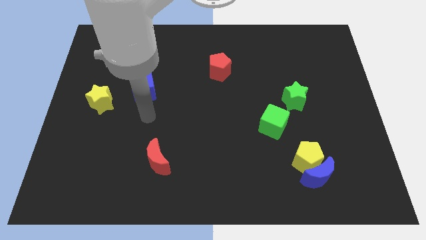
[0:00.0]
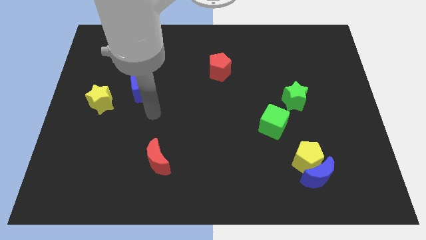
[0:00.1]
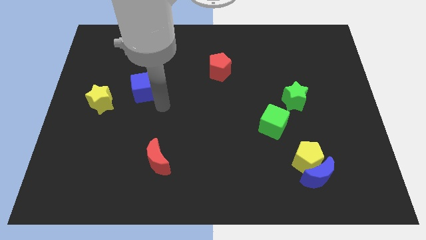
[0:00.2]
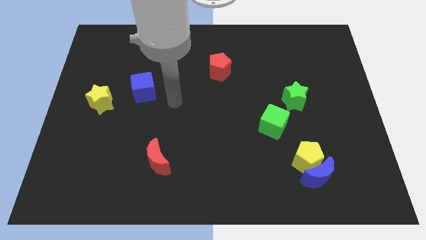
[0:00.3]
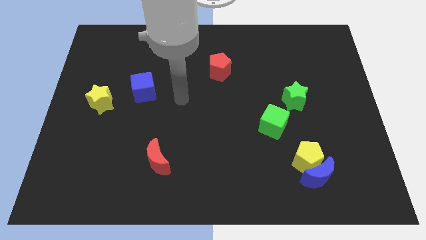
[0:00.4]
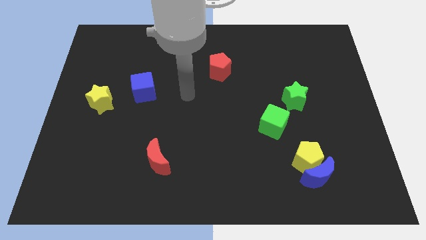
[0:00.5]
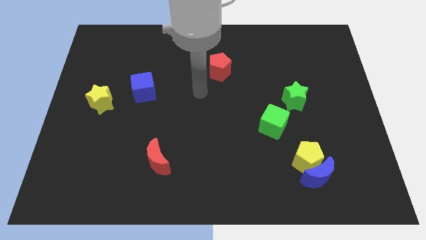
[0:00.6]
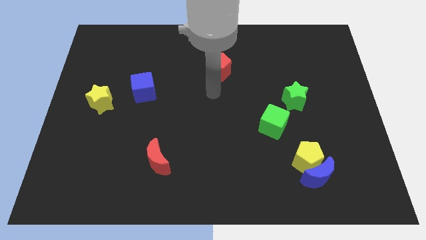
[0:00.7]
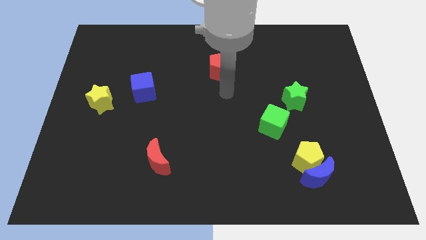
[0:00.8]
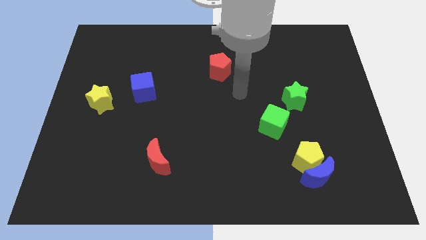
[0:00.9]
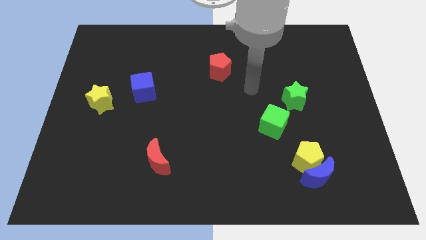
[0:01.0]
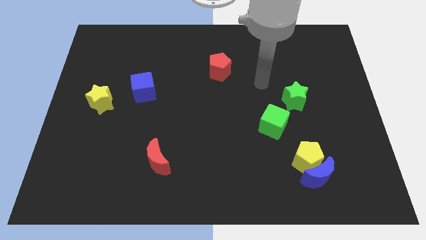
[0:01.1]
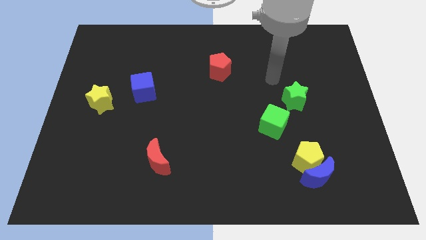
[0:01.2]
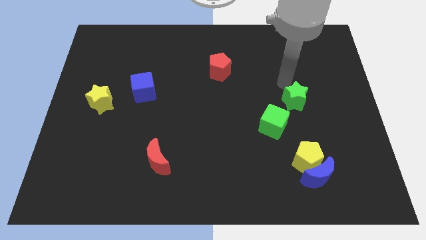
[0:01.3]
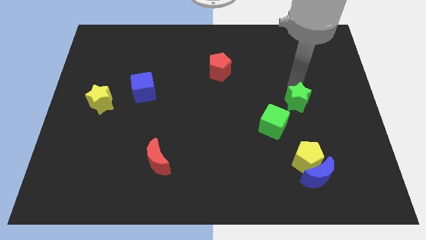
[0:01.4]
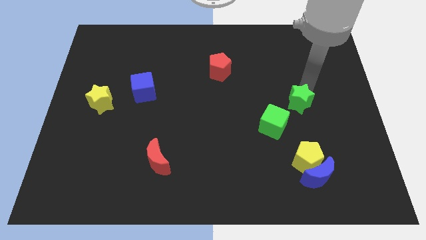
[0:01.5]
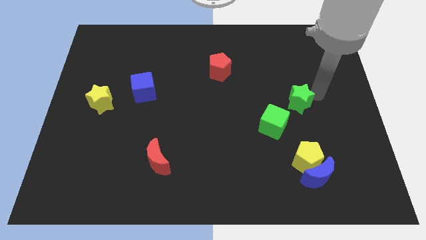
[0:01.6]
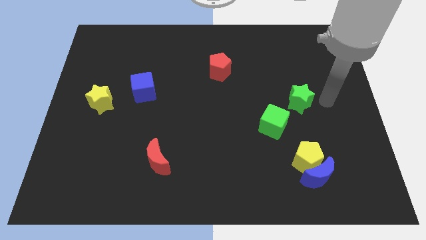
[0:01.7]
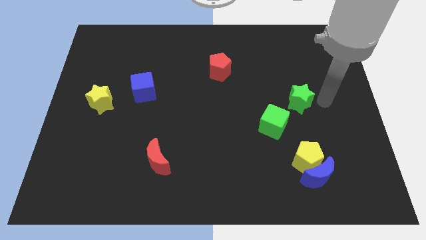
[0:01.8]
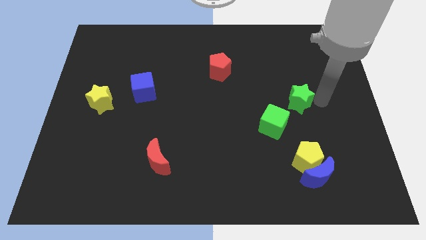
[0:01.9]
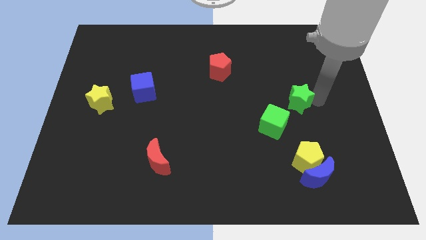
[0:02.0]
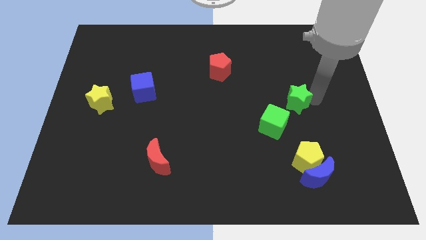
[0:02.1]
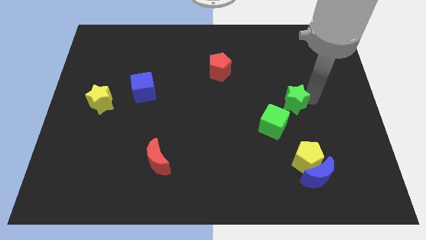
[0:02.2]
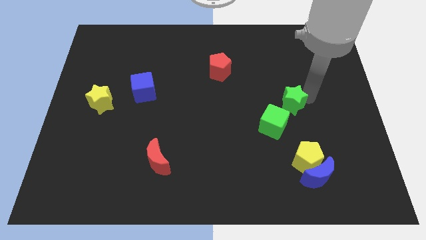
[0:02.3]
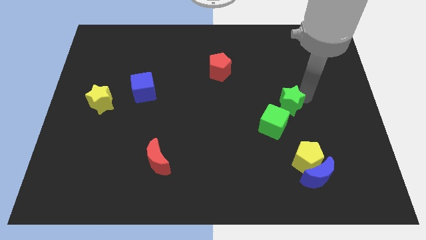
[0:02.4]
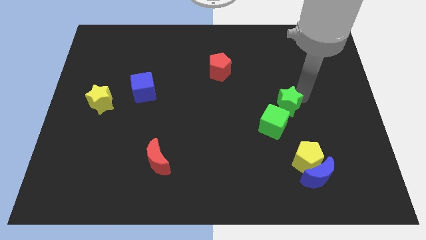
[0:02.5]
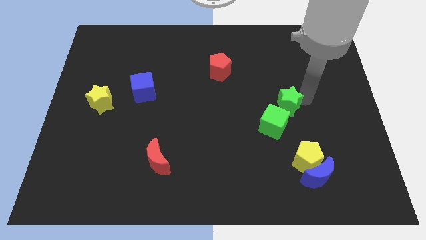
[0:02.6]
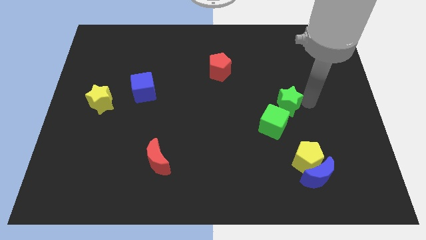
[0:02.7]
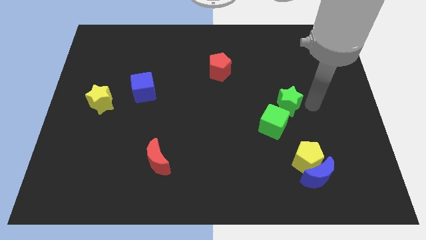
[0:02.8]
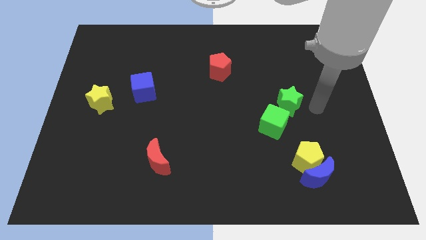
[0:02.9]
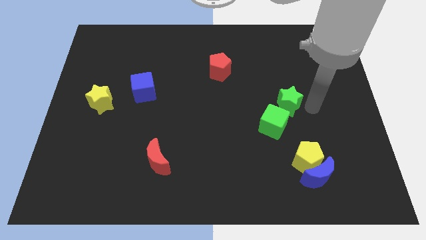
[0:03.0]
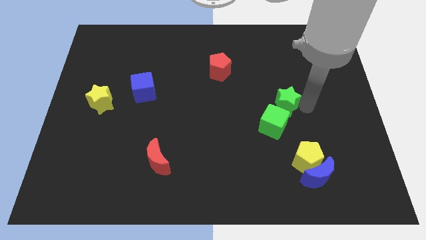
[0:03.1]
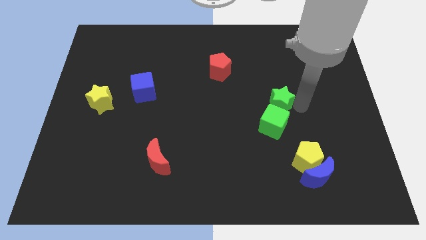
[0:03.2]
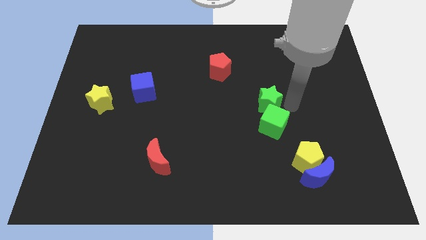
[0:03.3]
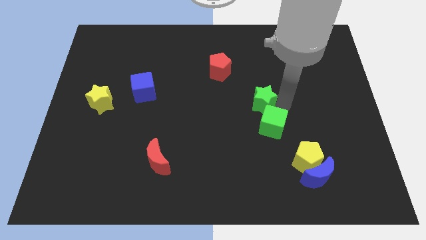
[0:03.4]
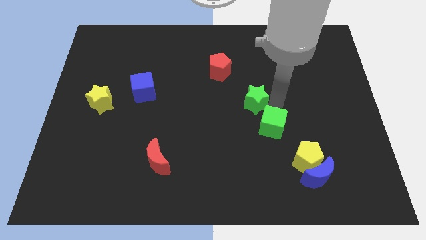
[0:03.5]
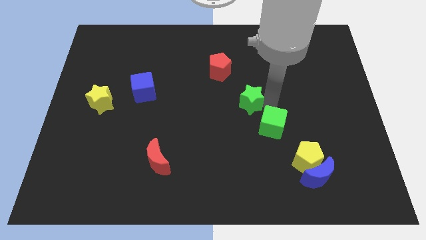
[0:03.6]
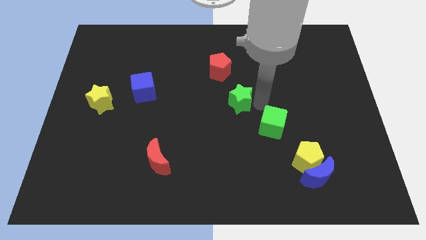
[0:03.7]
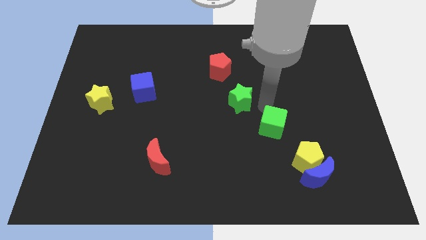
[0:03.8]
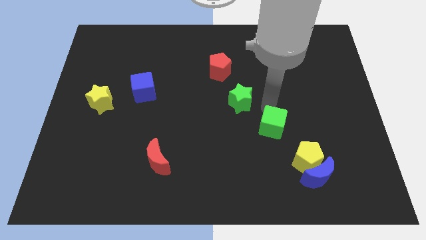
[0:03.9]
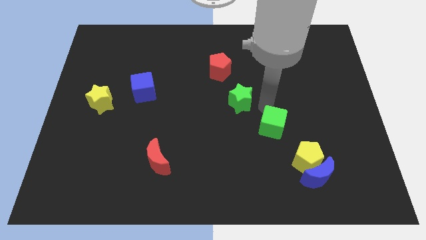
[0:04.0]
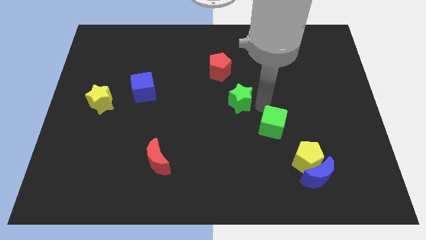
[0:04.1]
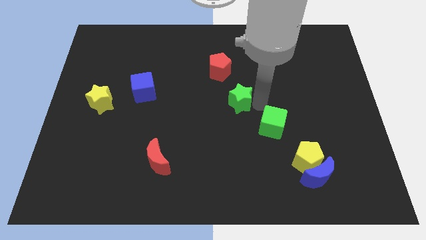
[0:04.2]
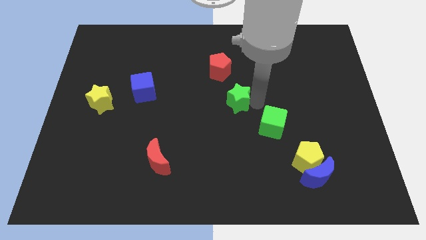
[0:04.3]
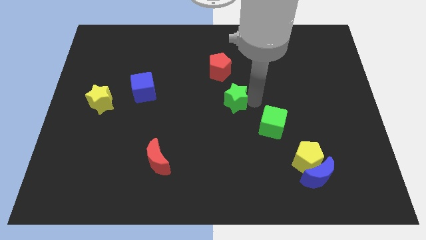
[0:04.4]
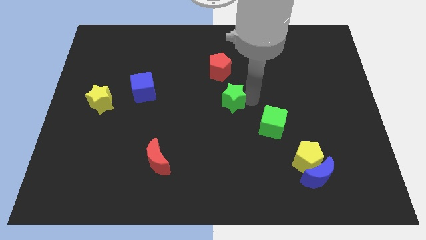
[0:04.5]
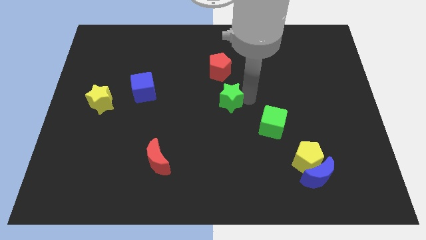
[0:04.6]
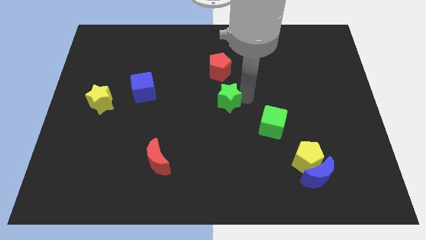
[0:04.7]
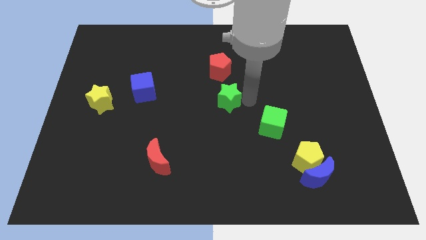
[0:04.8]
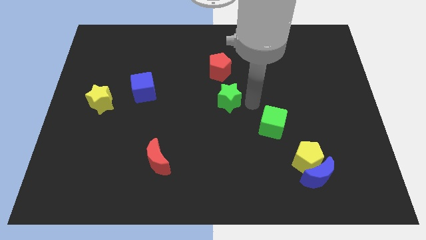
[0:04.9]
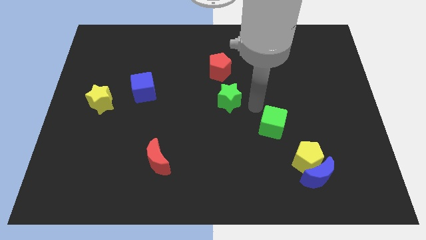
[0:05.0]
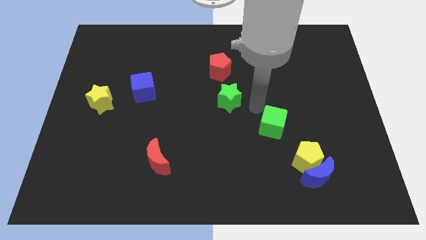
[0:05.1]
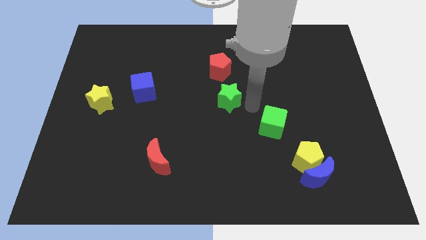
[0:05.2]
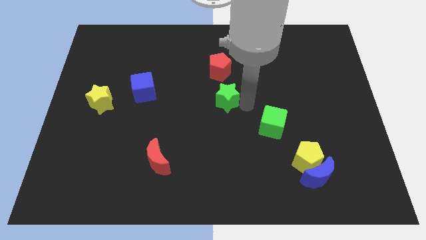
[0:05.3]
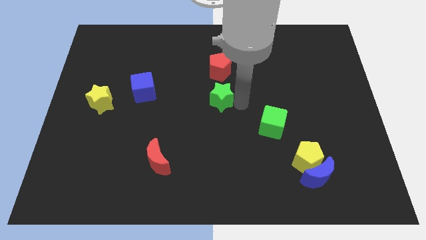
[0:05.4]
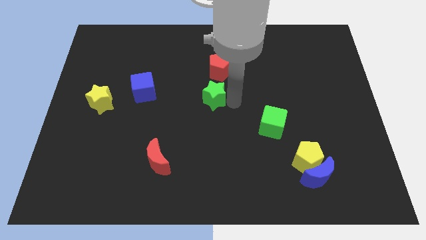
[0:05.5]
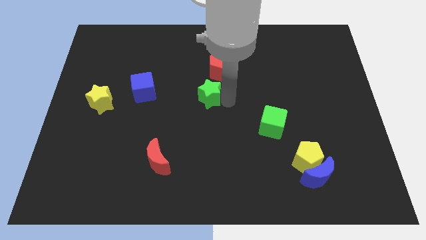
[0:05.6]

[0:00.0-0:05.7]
move the green star to the left

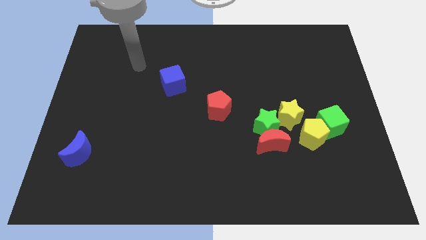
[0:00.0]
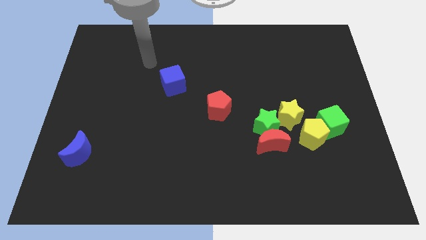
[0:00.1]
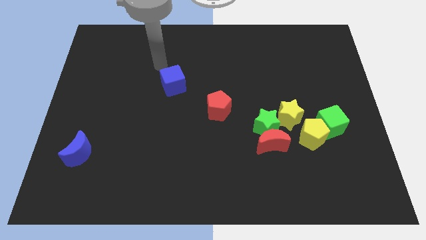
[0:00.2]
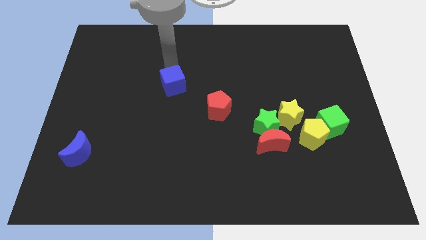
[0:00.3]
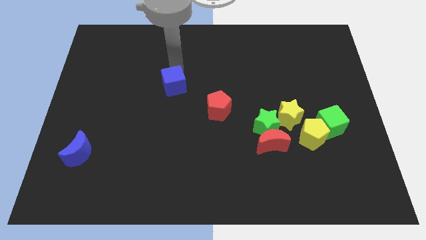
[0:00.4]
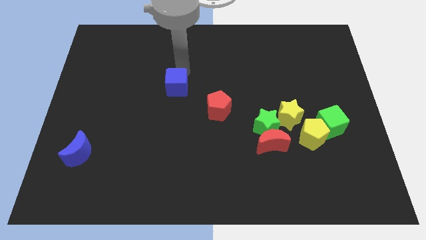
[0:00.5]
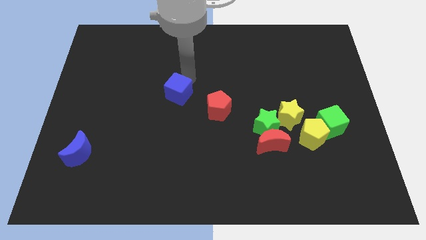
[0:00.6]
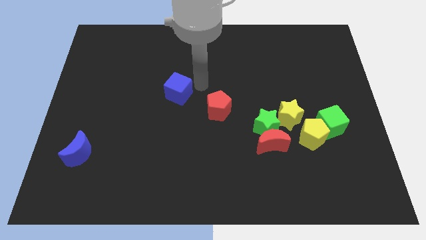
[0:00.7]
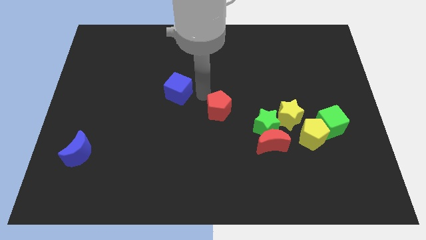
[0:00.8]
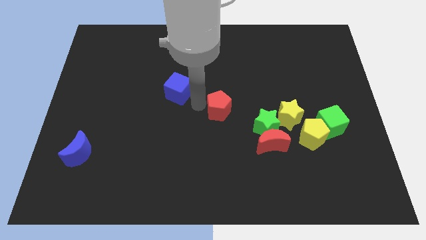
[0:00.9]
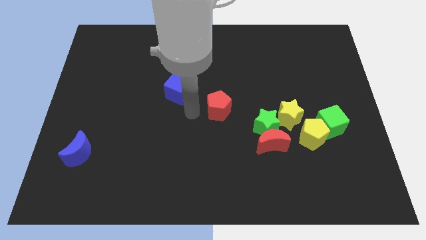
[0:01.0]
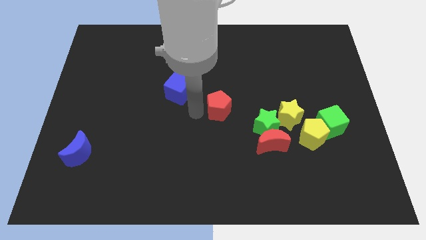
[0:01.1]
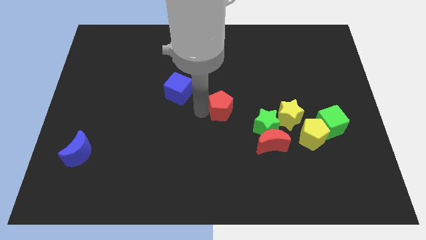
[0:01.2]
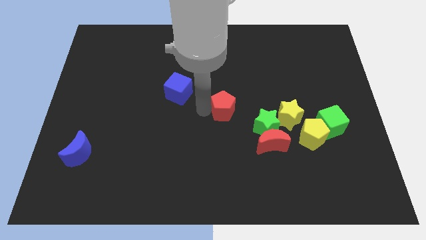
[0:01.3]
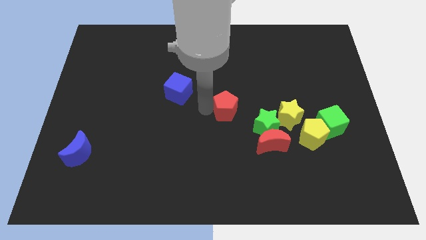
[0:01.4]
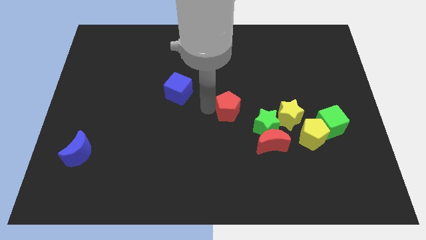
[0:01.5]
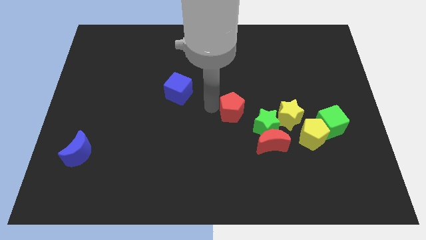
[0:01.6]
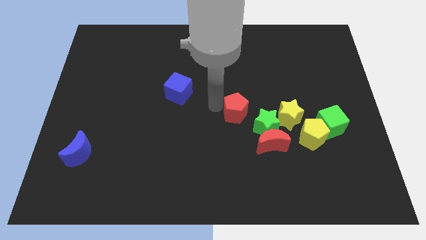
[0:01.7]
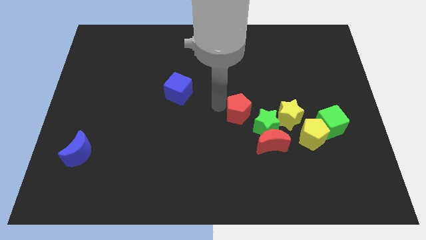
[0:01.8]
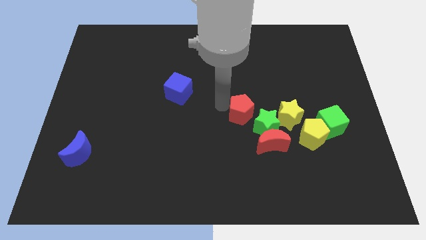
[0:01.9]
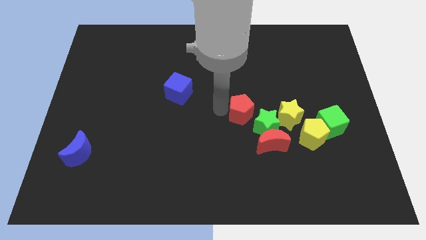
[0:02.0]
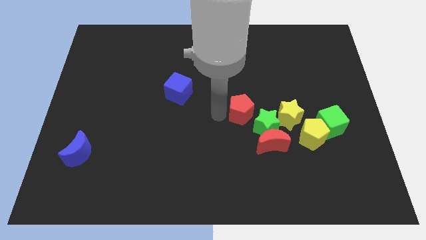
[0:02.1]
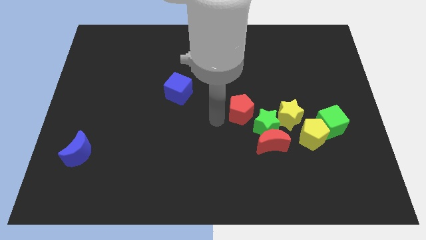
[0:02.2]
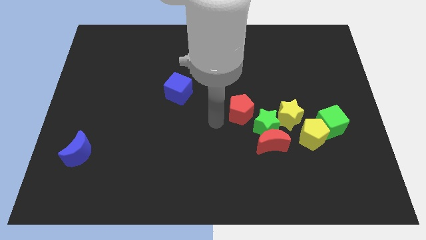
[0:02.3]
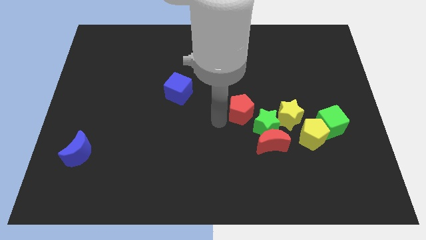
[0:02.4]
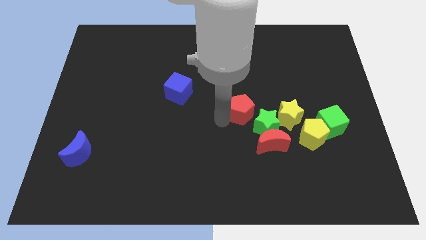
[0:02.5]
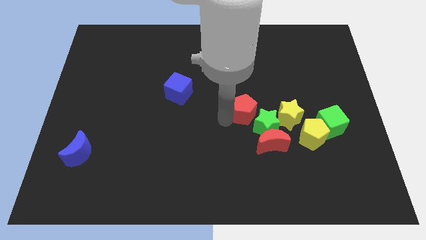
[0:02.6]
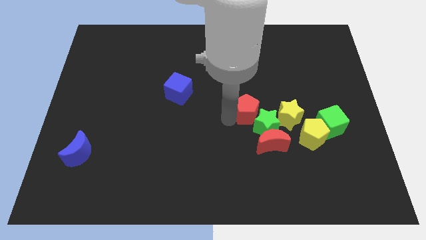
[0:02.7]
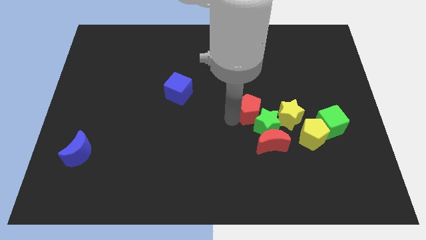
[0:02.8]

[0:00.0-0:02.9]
slightly slide the red pentagon right
